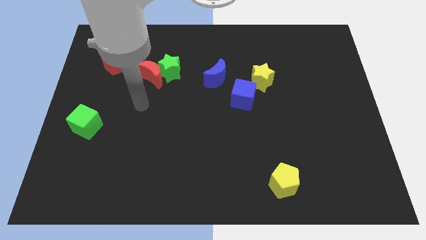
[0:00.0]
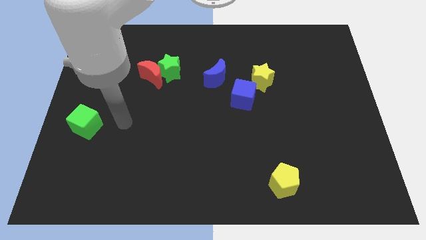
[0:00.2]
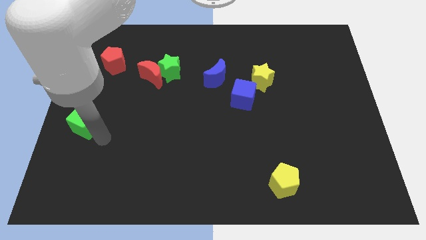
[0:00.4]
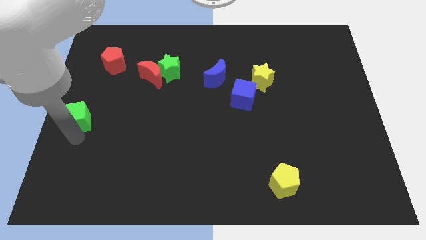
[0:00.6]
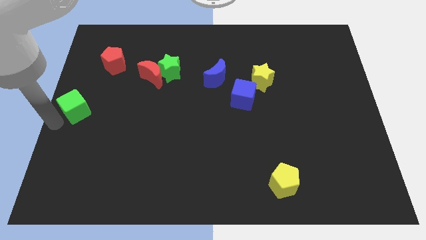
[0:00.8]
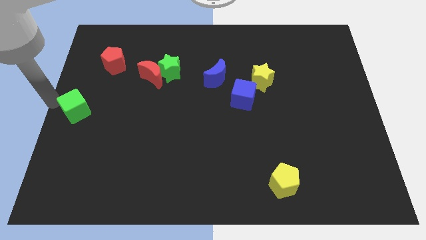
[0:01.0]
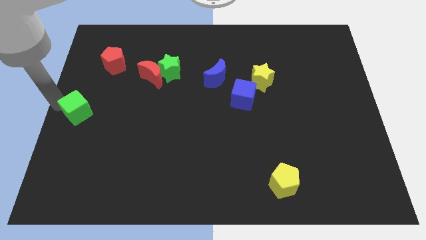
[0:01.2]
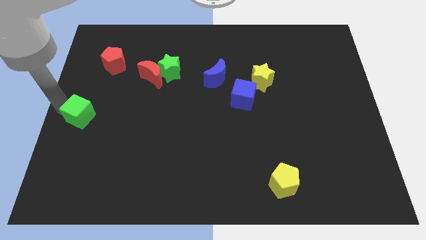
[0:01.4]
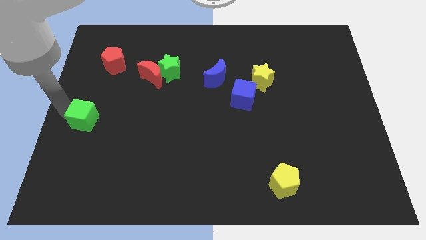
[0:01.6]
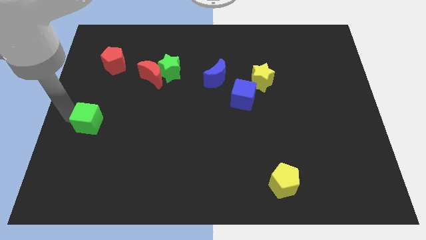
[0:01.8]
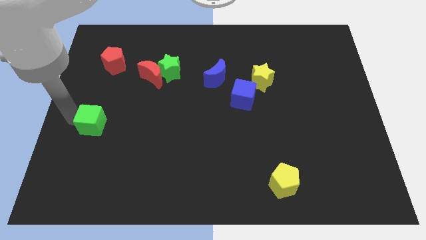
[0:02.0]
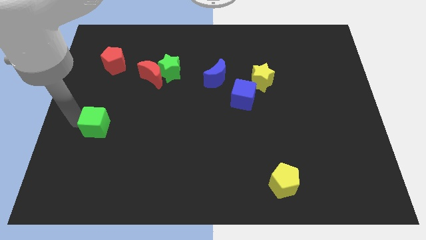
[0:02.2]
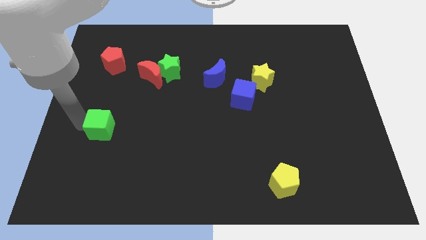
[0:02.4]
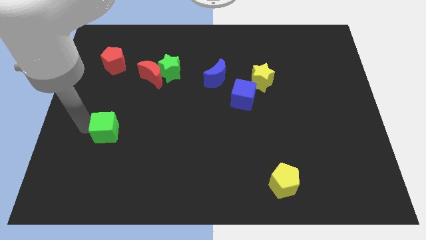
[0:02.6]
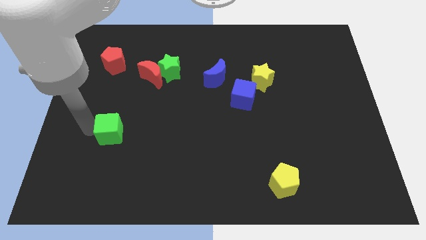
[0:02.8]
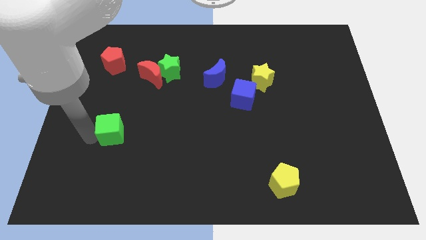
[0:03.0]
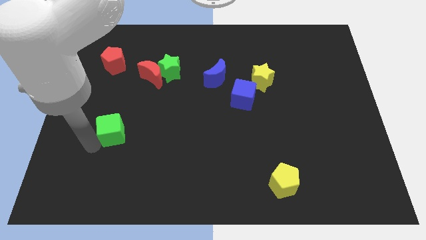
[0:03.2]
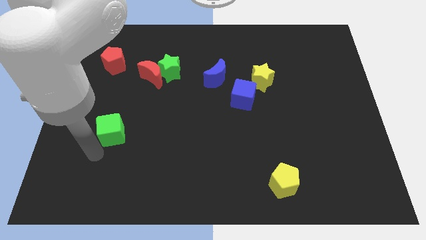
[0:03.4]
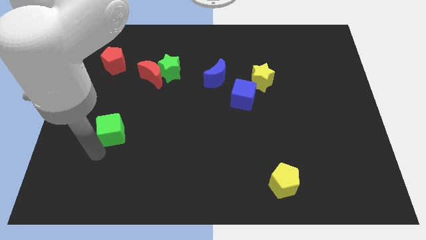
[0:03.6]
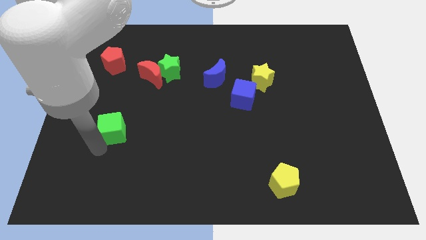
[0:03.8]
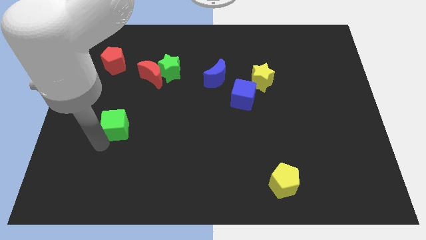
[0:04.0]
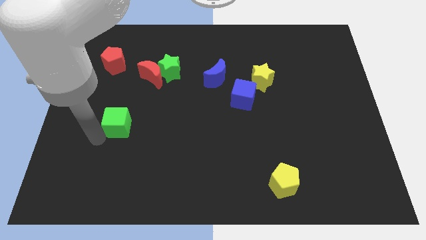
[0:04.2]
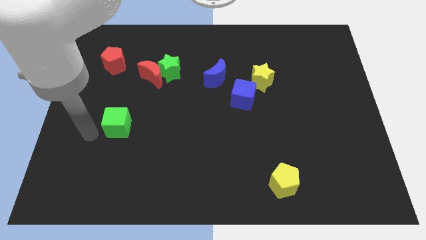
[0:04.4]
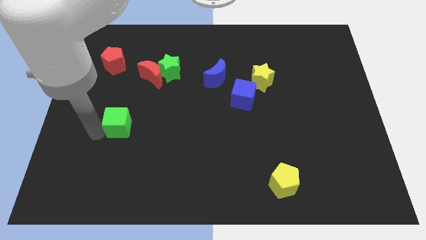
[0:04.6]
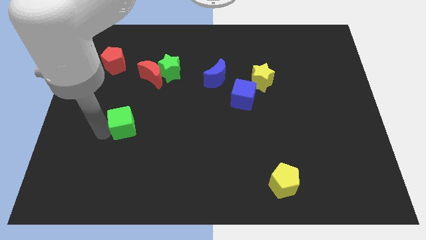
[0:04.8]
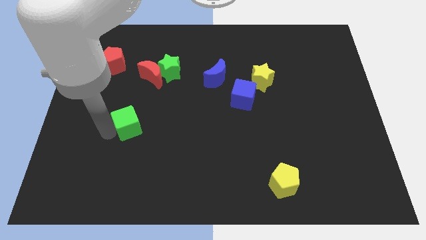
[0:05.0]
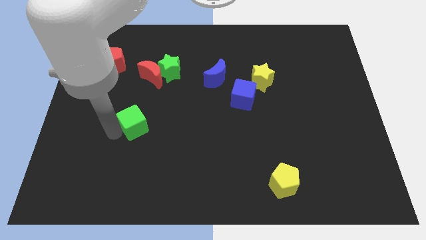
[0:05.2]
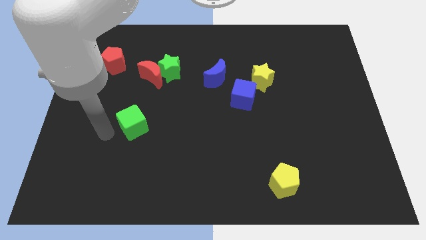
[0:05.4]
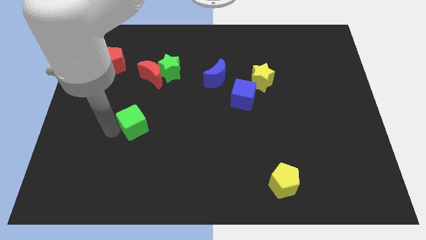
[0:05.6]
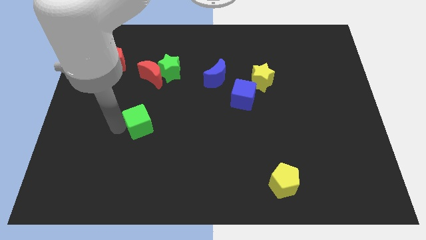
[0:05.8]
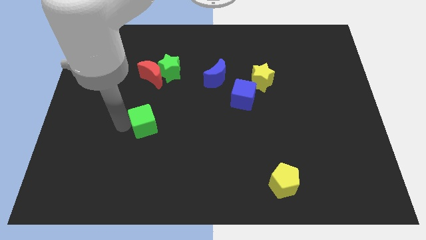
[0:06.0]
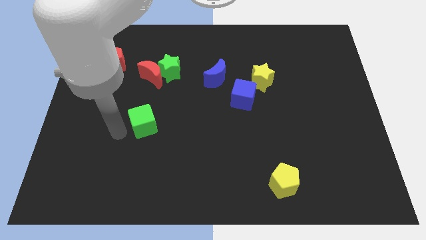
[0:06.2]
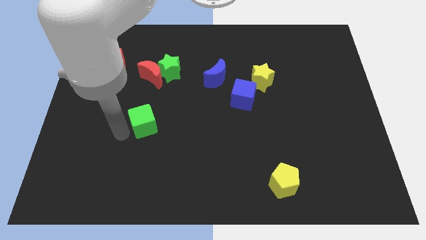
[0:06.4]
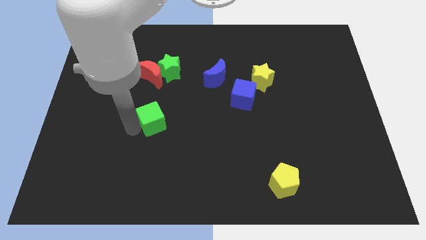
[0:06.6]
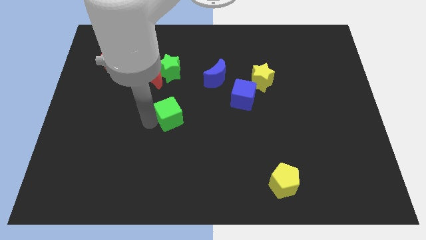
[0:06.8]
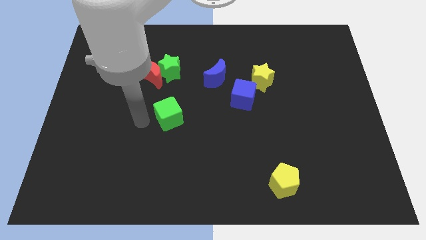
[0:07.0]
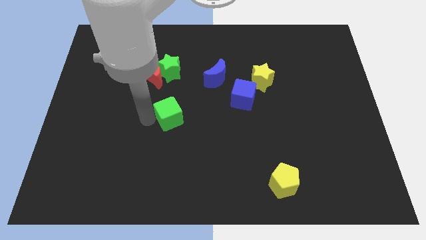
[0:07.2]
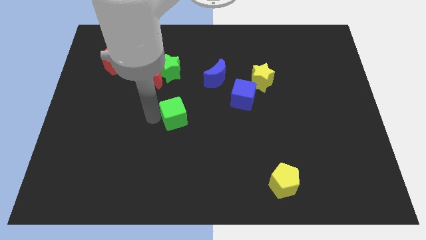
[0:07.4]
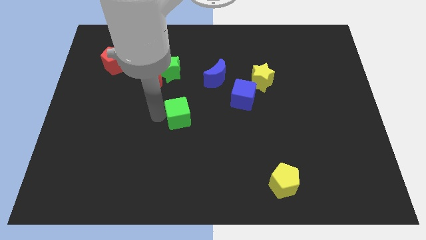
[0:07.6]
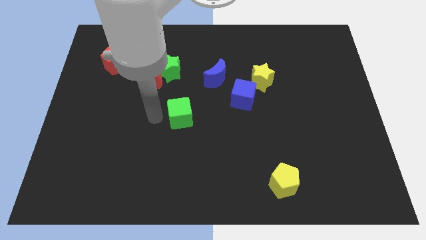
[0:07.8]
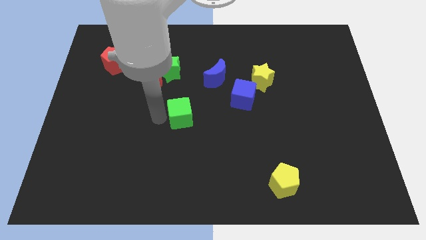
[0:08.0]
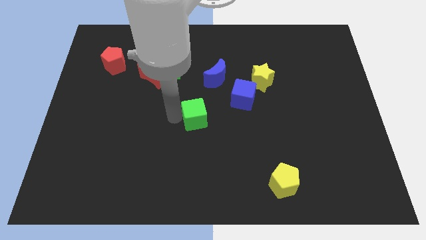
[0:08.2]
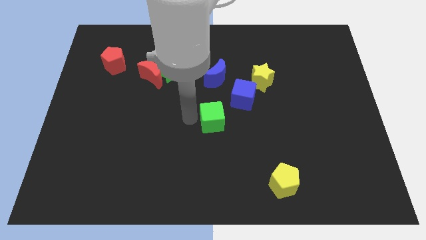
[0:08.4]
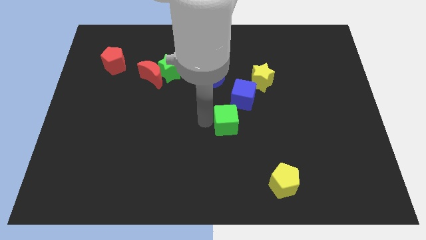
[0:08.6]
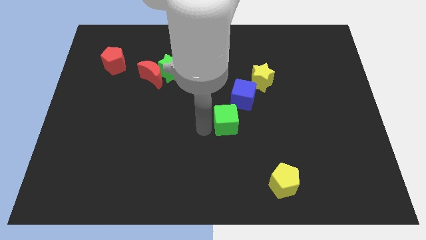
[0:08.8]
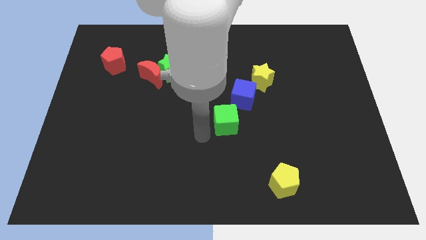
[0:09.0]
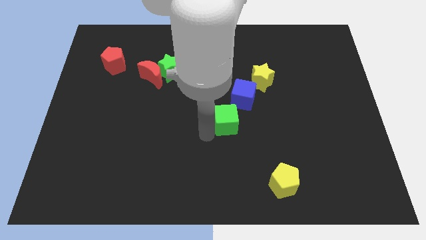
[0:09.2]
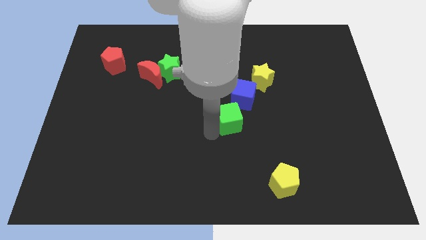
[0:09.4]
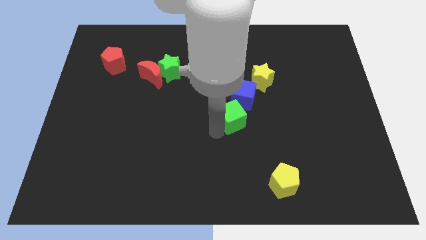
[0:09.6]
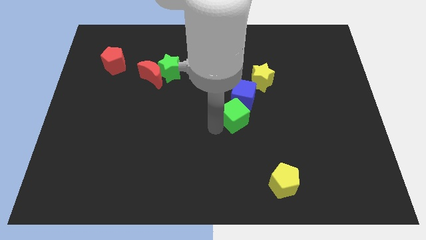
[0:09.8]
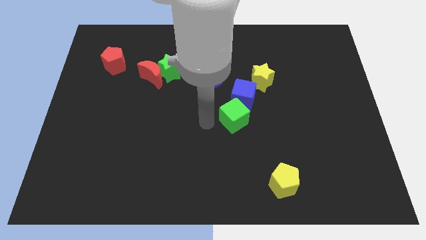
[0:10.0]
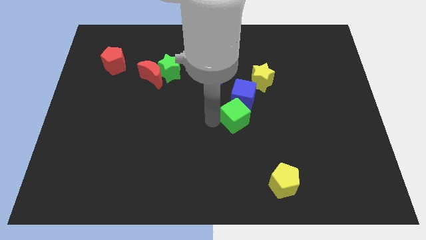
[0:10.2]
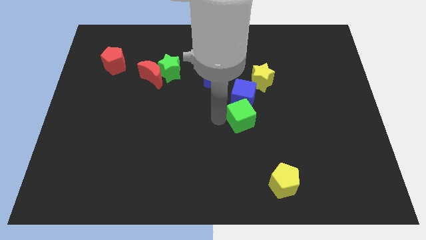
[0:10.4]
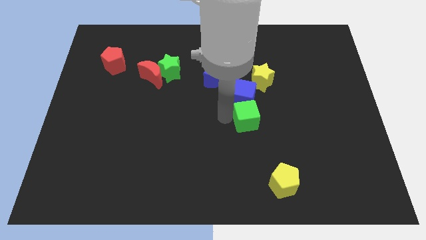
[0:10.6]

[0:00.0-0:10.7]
push the green cube to the bottom of the yellow star

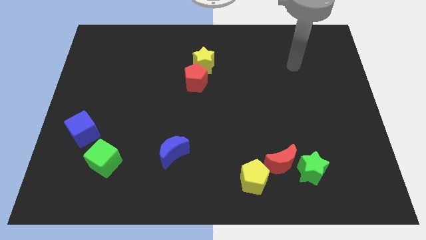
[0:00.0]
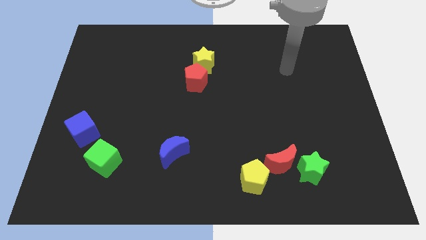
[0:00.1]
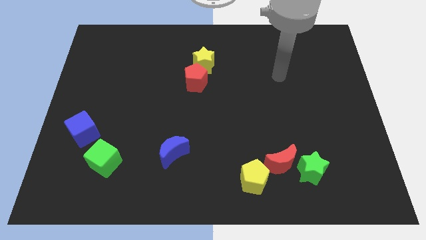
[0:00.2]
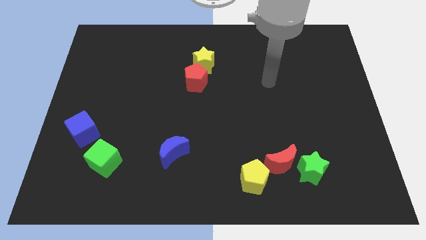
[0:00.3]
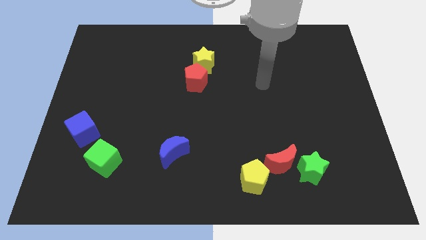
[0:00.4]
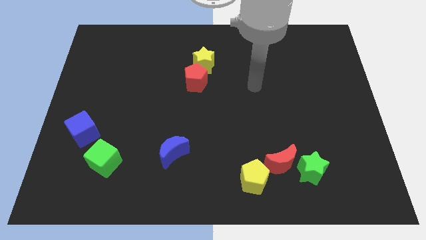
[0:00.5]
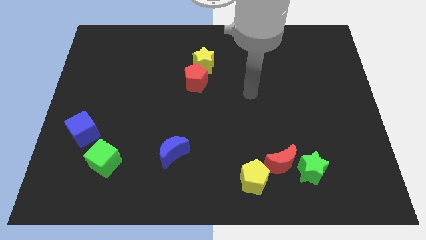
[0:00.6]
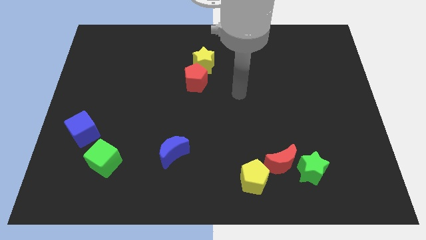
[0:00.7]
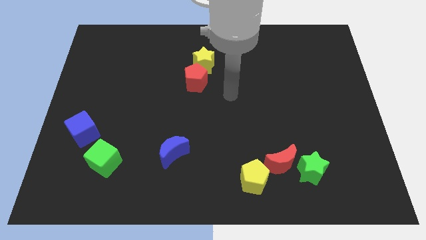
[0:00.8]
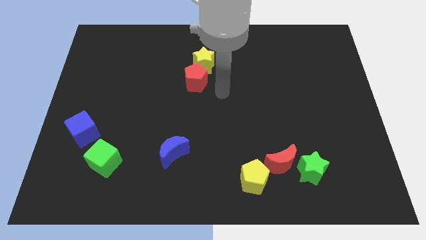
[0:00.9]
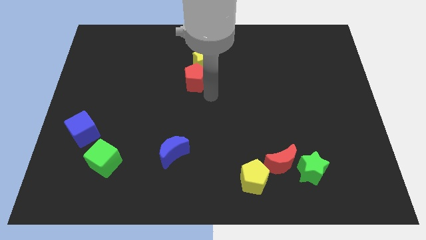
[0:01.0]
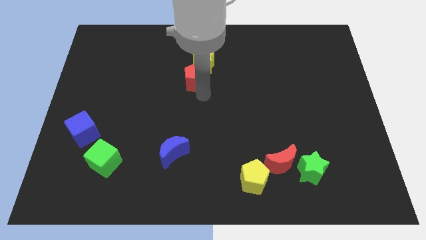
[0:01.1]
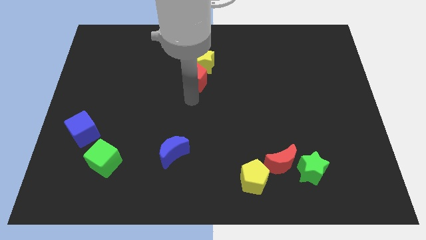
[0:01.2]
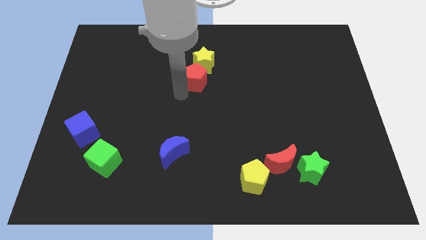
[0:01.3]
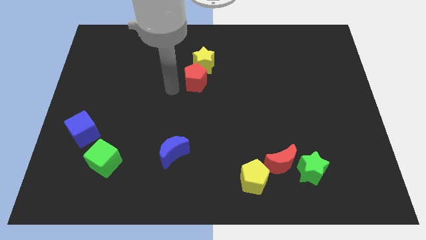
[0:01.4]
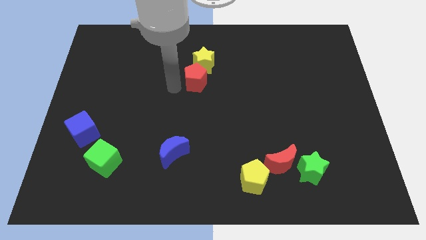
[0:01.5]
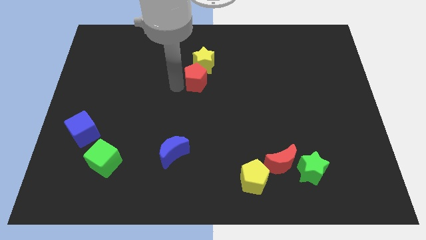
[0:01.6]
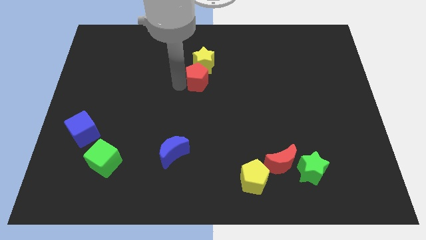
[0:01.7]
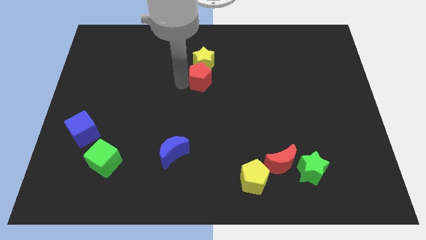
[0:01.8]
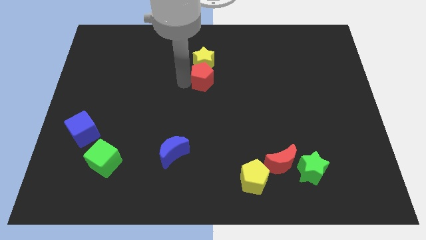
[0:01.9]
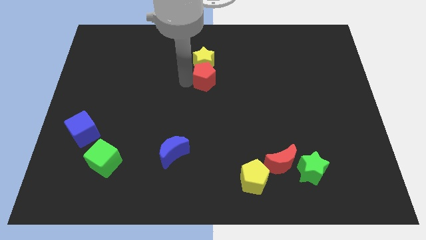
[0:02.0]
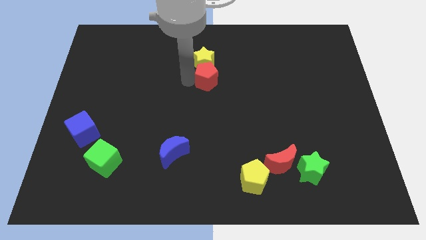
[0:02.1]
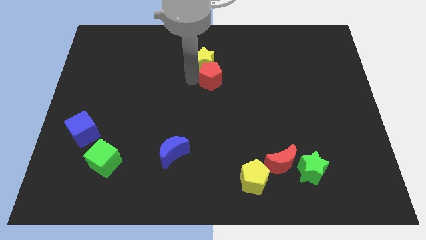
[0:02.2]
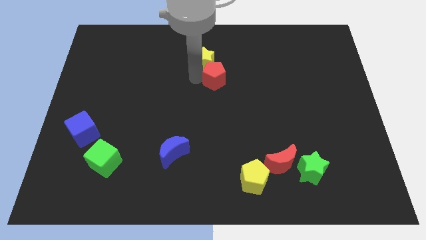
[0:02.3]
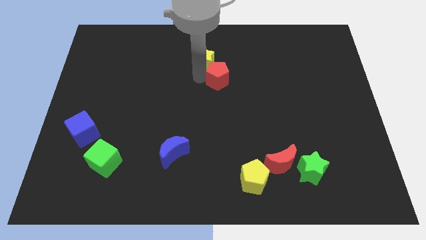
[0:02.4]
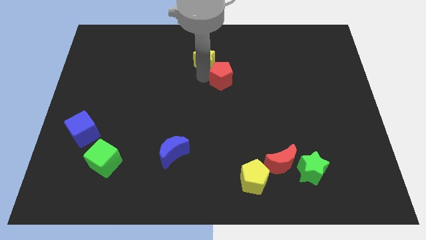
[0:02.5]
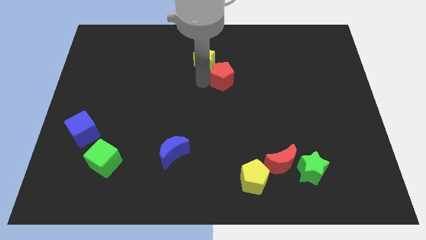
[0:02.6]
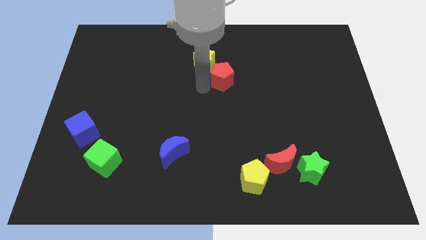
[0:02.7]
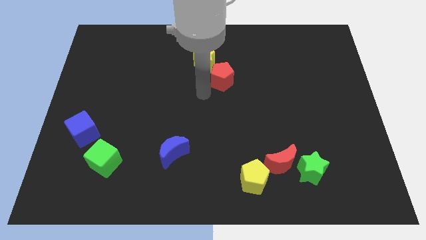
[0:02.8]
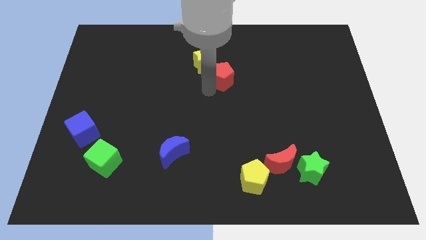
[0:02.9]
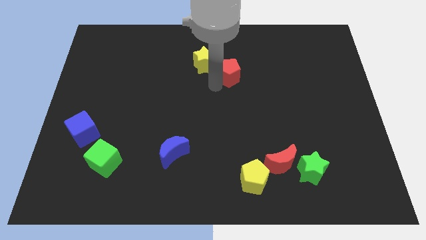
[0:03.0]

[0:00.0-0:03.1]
put the red pentagon to the right of the yellow star
